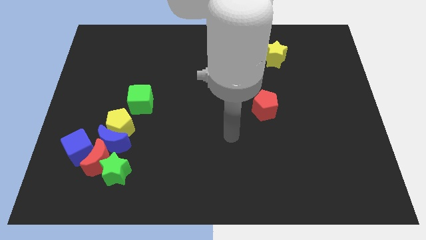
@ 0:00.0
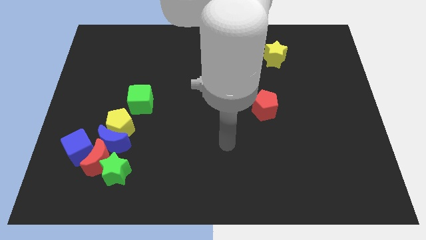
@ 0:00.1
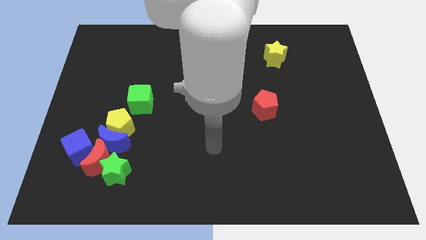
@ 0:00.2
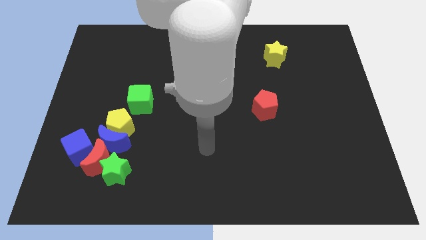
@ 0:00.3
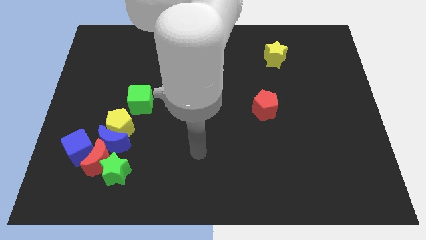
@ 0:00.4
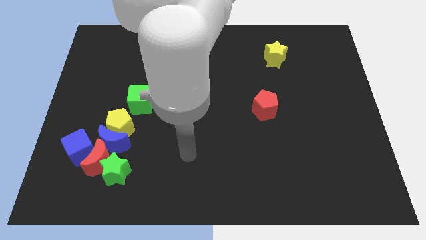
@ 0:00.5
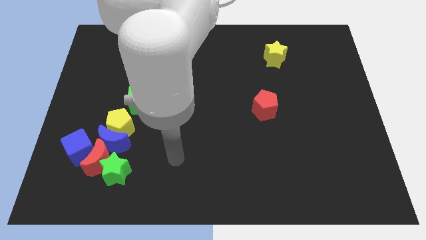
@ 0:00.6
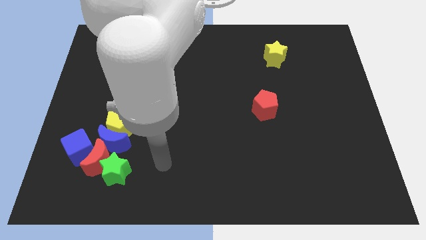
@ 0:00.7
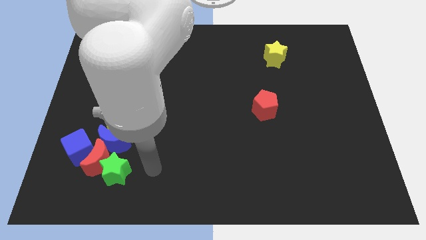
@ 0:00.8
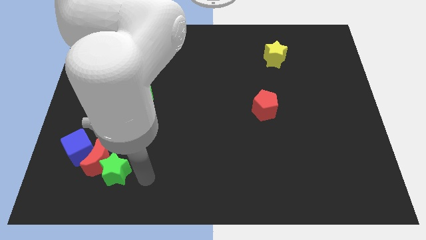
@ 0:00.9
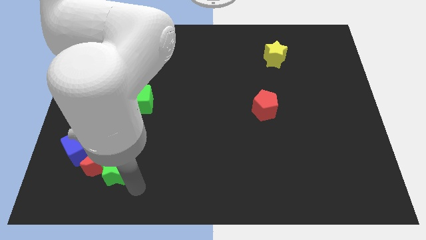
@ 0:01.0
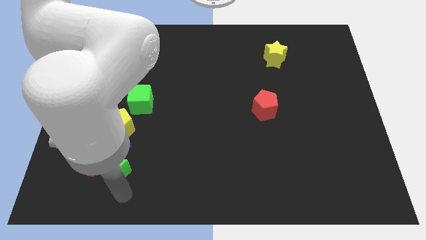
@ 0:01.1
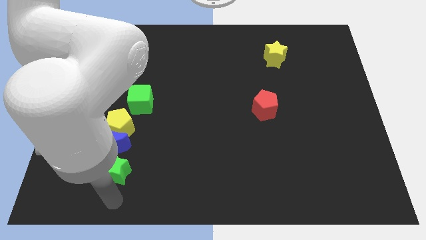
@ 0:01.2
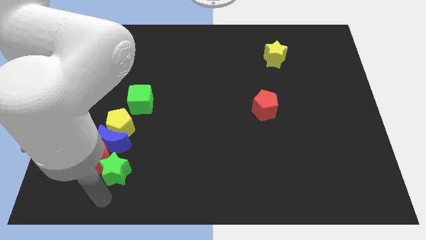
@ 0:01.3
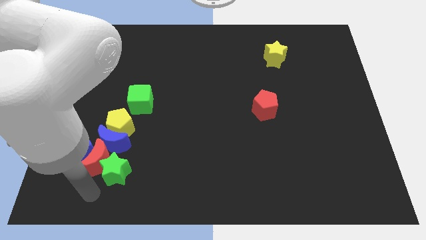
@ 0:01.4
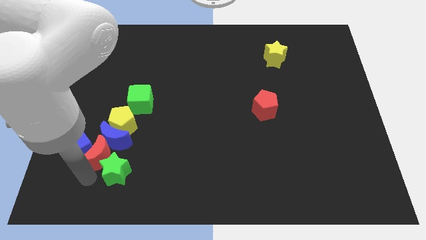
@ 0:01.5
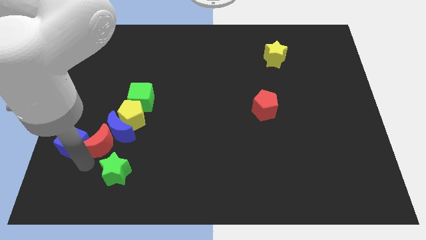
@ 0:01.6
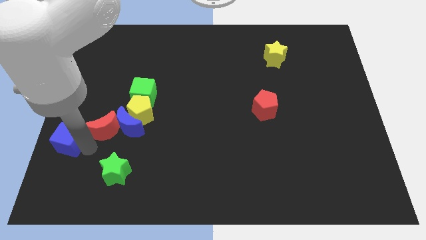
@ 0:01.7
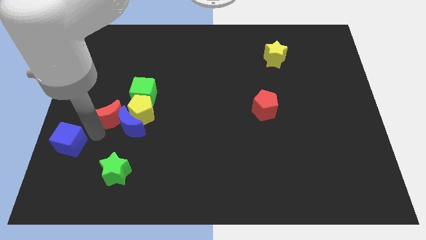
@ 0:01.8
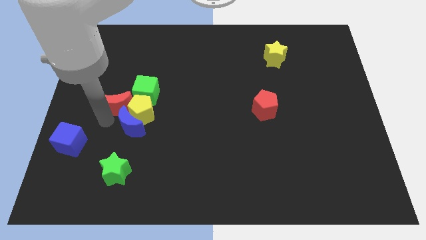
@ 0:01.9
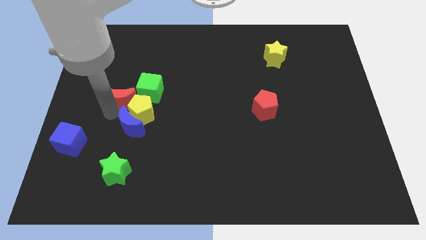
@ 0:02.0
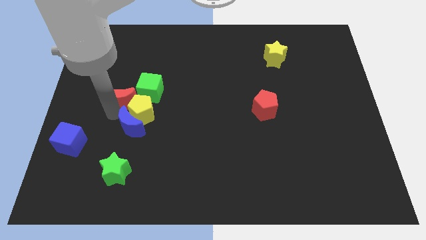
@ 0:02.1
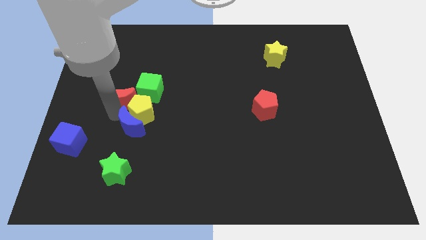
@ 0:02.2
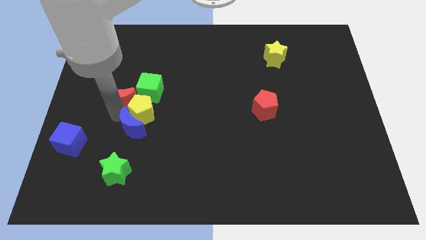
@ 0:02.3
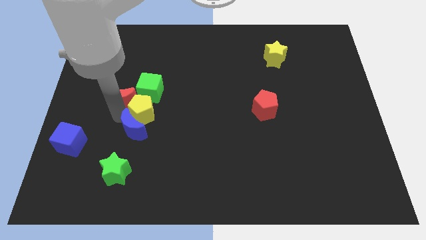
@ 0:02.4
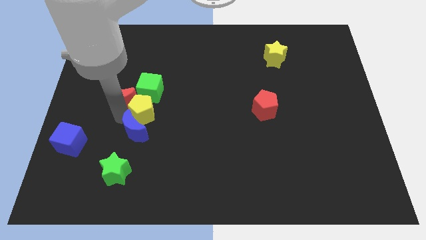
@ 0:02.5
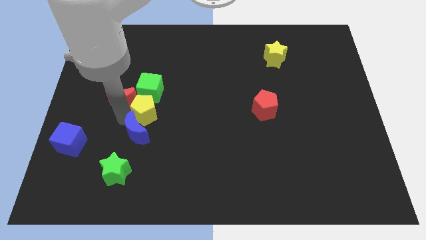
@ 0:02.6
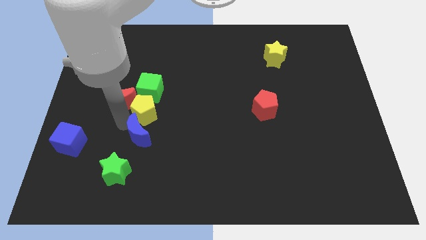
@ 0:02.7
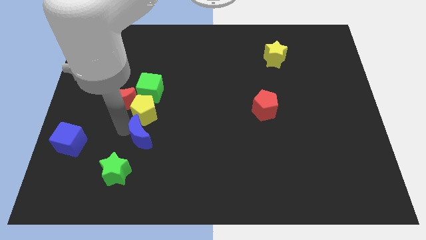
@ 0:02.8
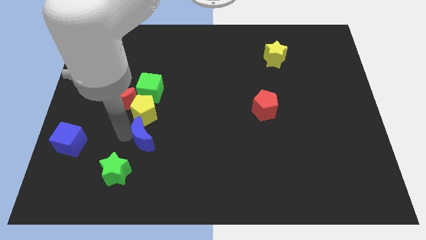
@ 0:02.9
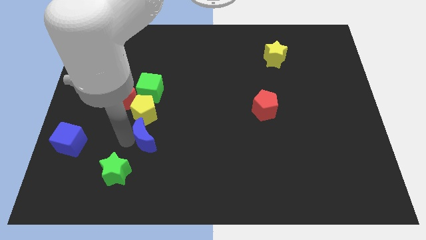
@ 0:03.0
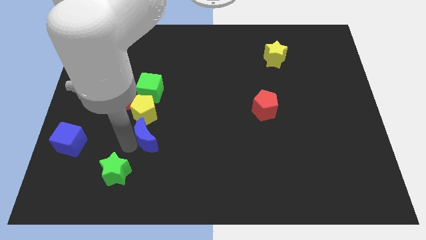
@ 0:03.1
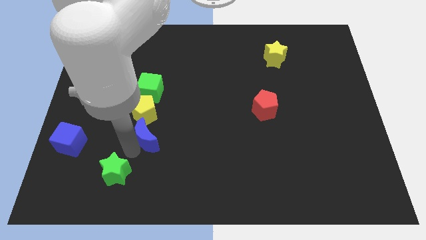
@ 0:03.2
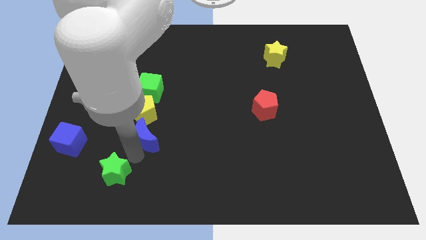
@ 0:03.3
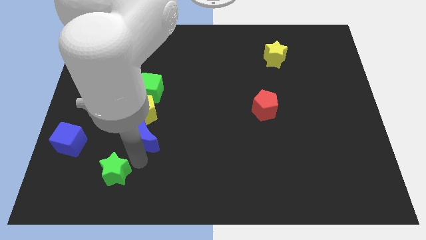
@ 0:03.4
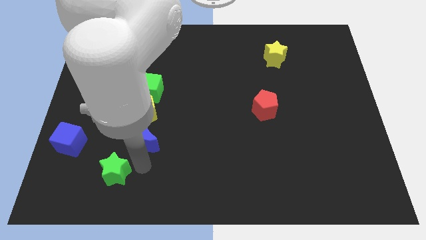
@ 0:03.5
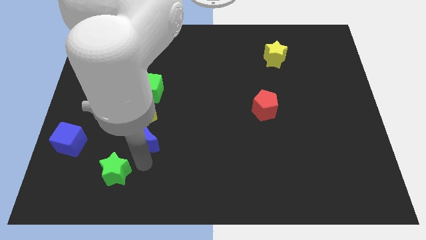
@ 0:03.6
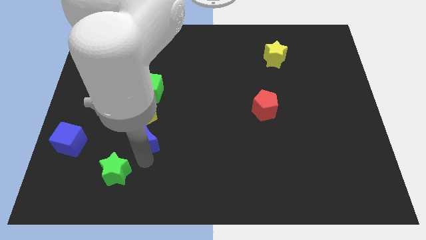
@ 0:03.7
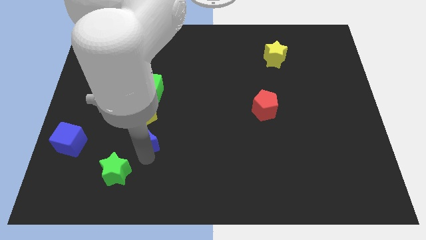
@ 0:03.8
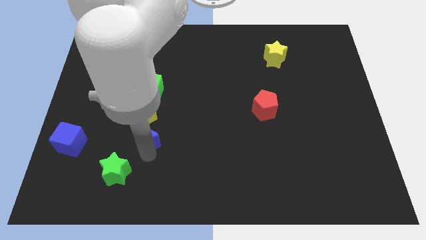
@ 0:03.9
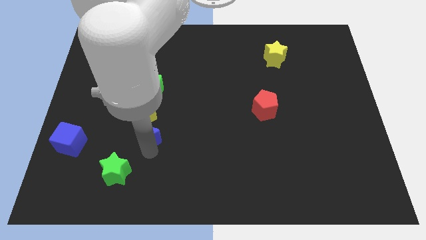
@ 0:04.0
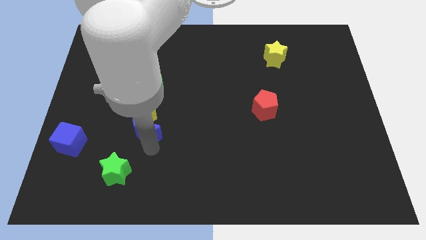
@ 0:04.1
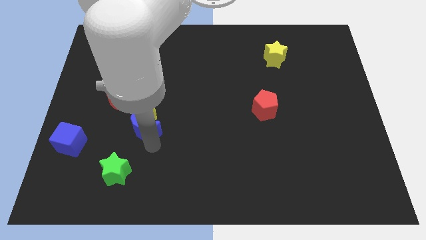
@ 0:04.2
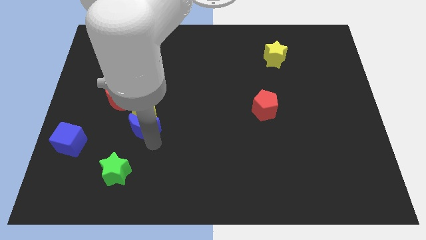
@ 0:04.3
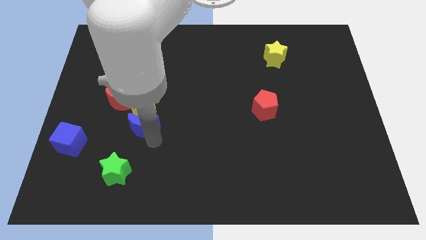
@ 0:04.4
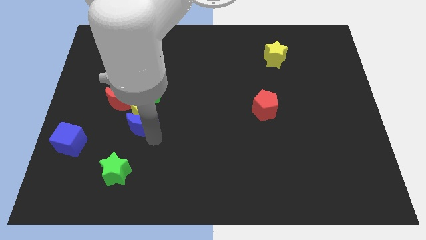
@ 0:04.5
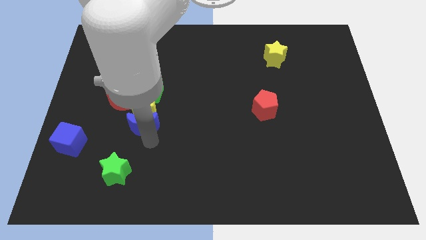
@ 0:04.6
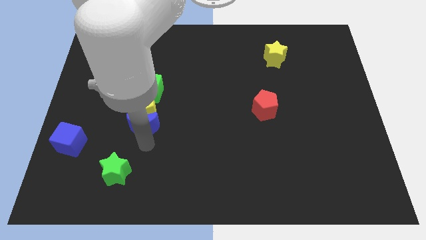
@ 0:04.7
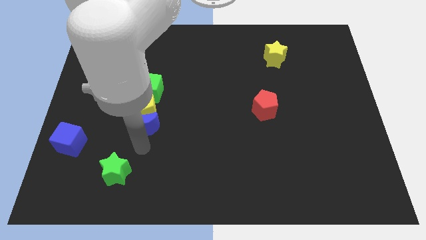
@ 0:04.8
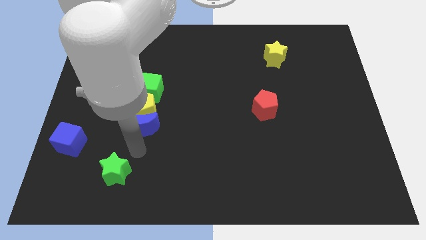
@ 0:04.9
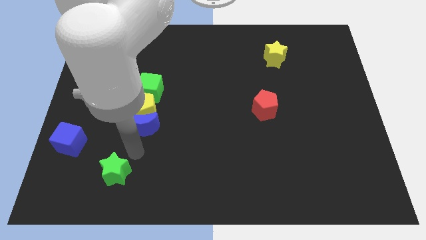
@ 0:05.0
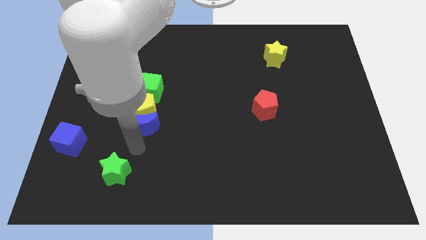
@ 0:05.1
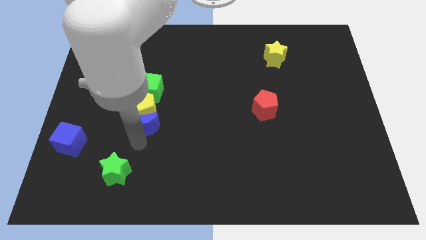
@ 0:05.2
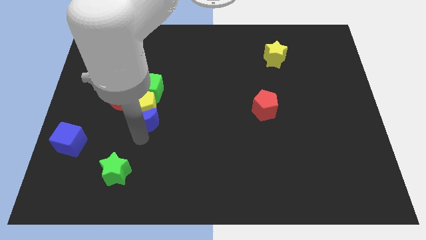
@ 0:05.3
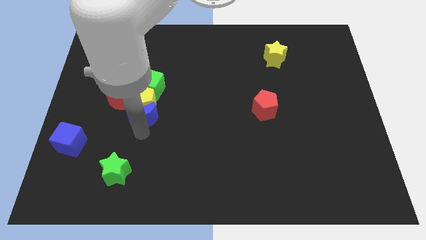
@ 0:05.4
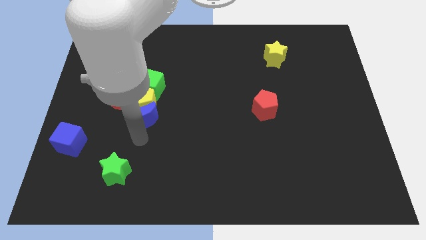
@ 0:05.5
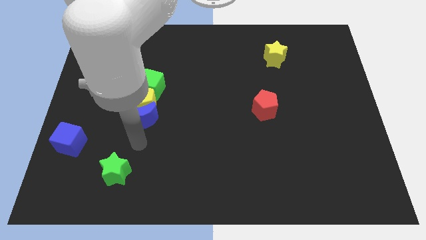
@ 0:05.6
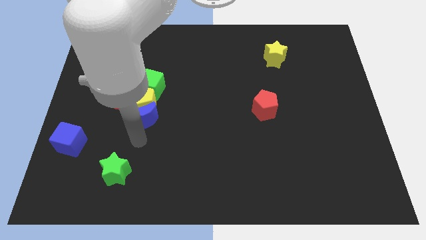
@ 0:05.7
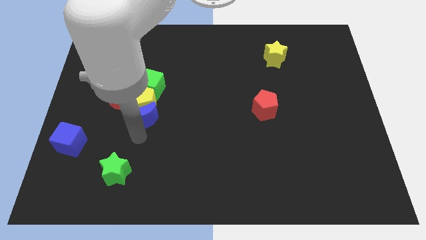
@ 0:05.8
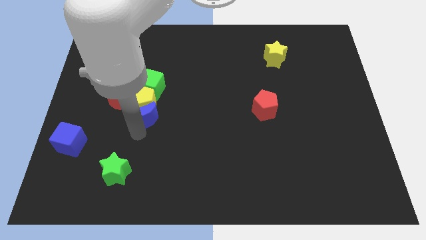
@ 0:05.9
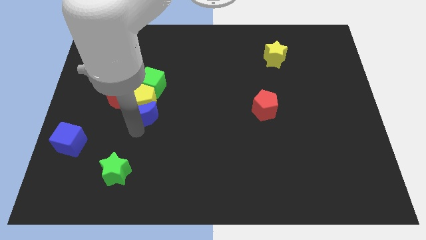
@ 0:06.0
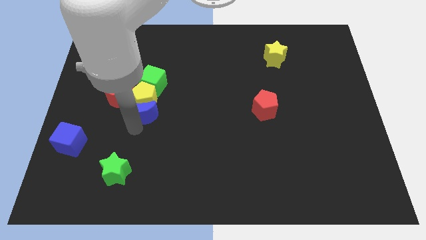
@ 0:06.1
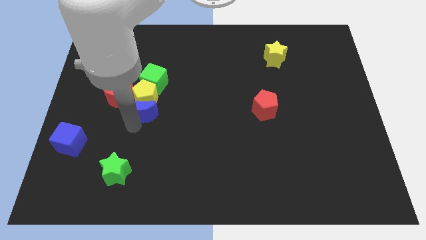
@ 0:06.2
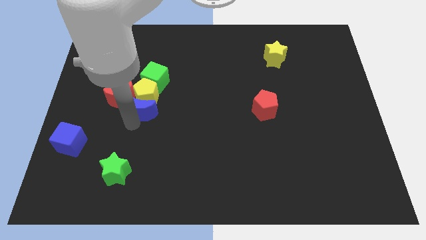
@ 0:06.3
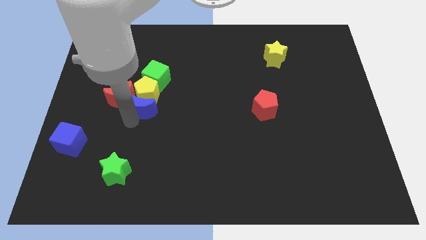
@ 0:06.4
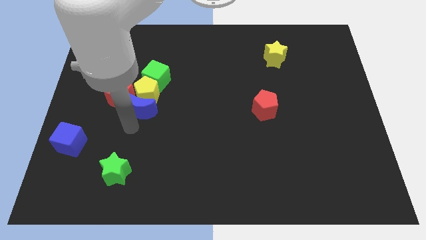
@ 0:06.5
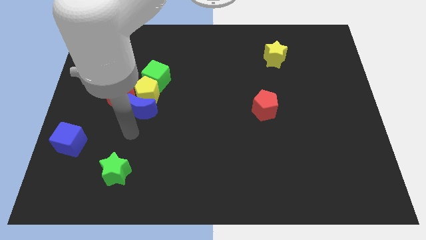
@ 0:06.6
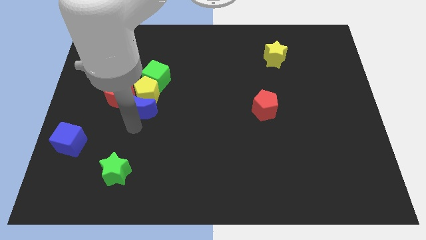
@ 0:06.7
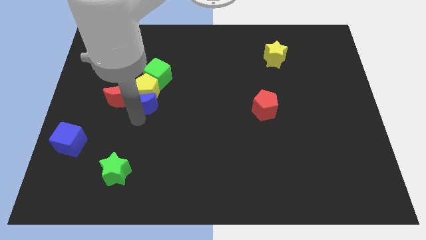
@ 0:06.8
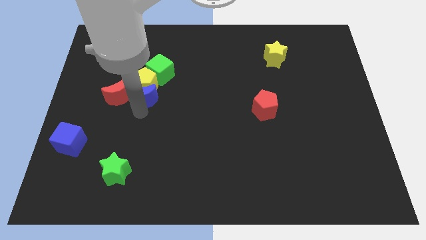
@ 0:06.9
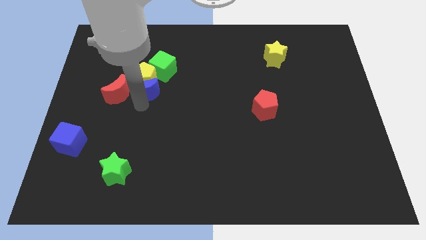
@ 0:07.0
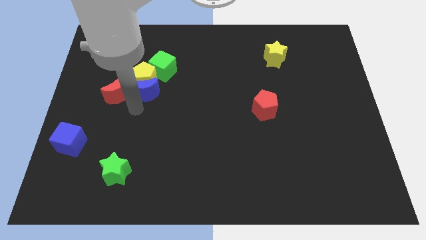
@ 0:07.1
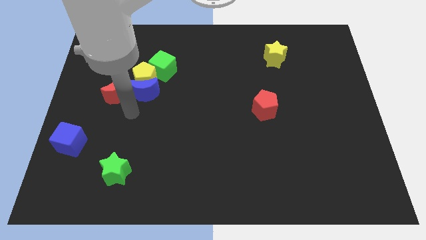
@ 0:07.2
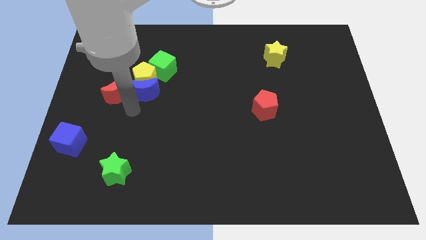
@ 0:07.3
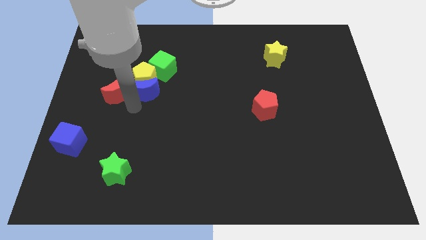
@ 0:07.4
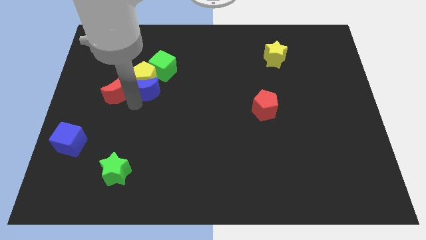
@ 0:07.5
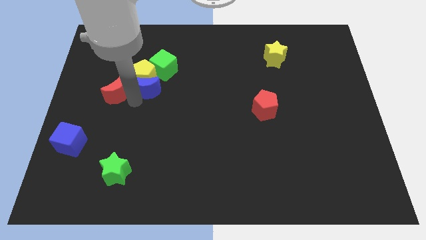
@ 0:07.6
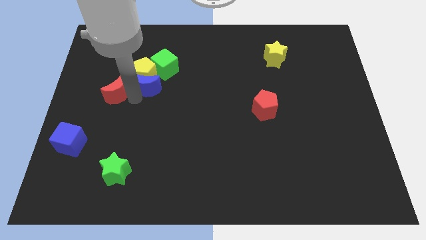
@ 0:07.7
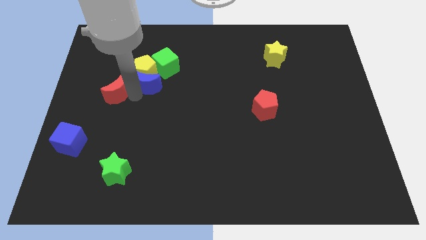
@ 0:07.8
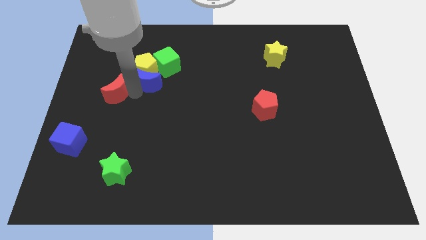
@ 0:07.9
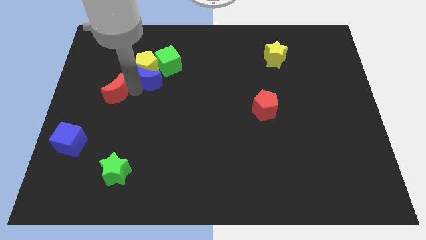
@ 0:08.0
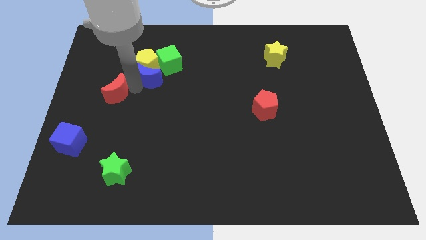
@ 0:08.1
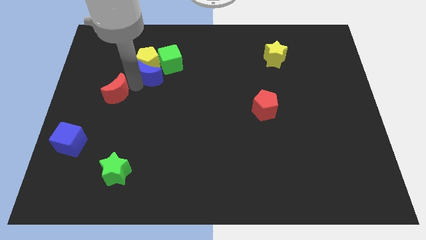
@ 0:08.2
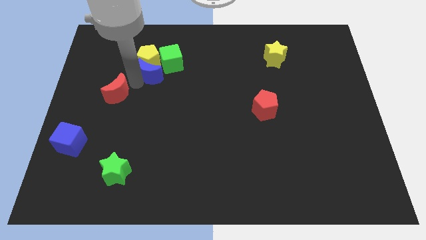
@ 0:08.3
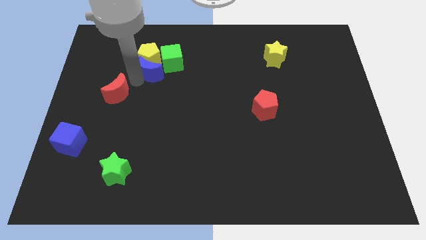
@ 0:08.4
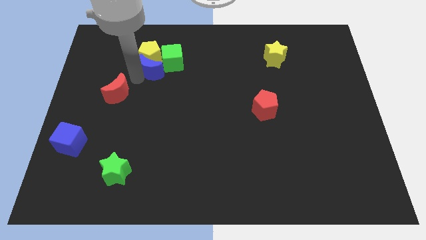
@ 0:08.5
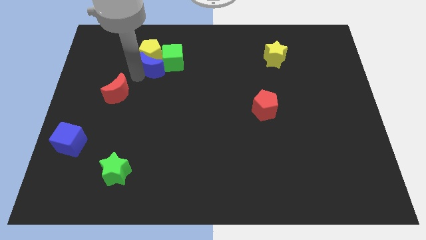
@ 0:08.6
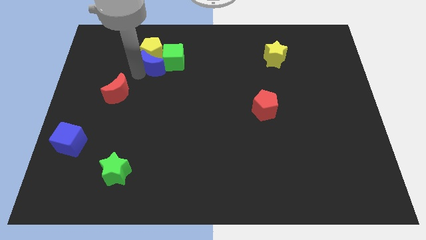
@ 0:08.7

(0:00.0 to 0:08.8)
slide the blue moon next to the green cube
